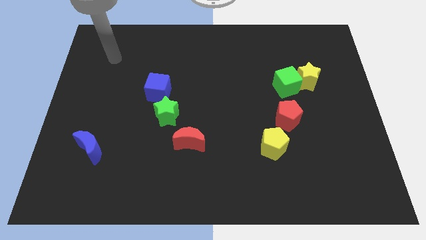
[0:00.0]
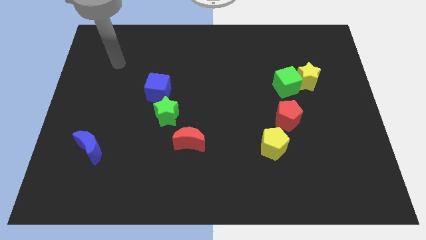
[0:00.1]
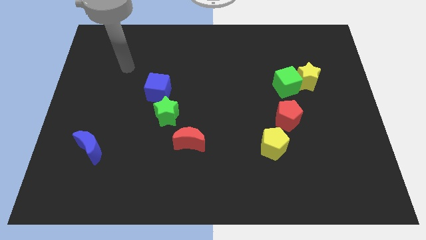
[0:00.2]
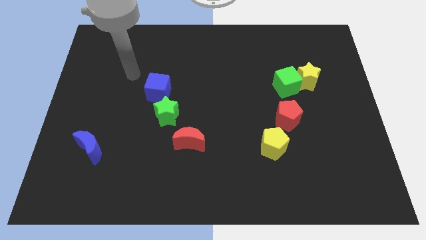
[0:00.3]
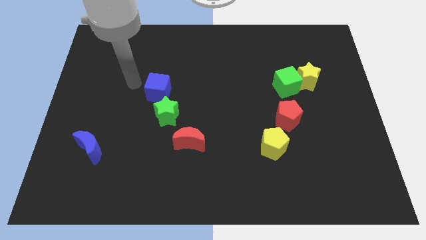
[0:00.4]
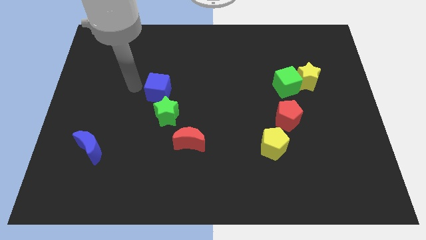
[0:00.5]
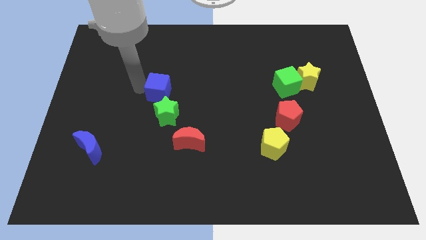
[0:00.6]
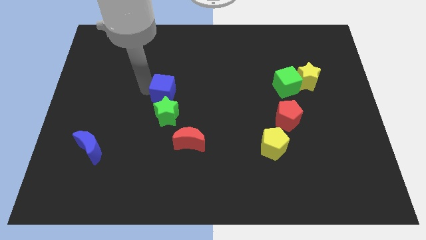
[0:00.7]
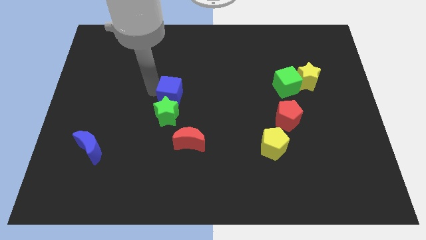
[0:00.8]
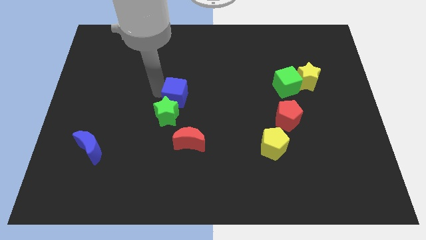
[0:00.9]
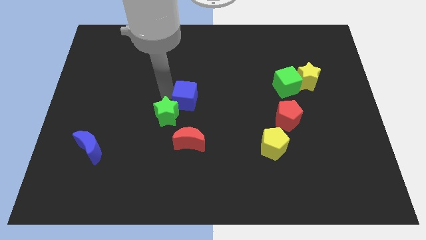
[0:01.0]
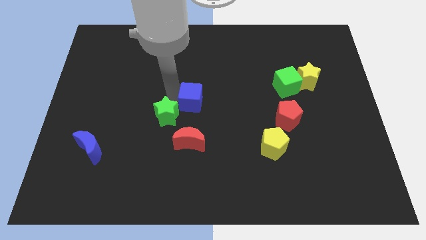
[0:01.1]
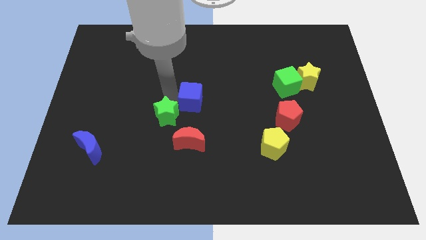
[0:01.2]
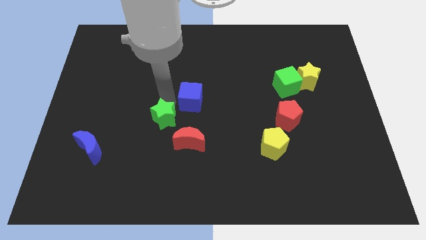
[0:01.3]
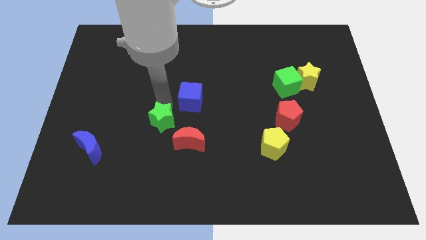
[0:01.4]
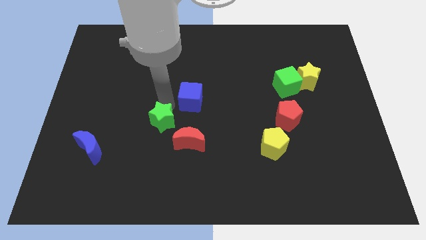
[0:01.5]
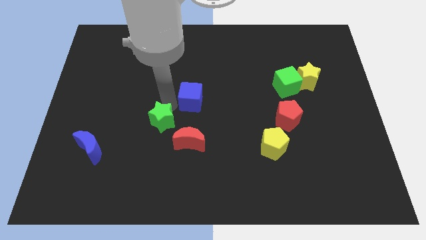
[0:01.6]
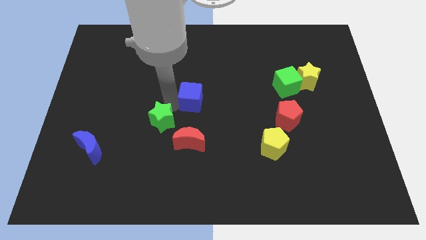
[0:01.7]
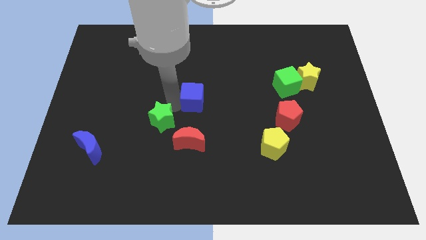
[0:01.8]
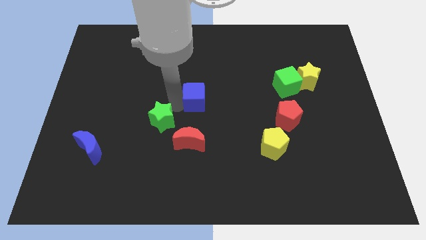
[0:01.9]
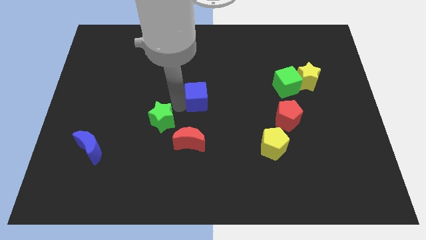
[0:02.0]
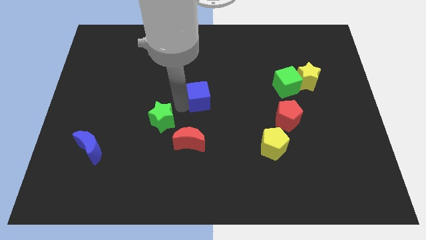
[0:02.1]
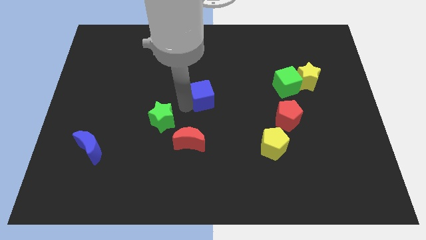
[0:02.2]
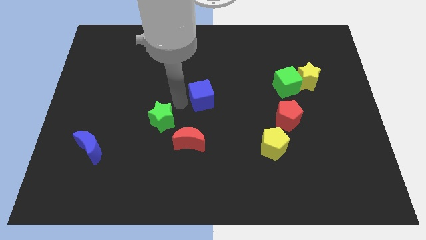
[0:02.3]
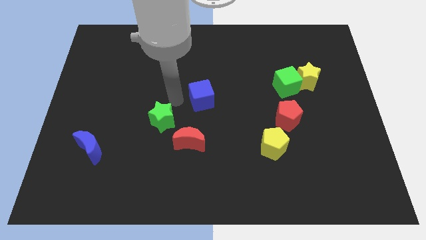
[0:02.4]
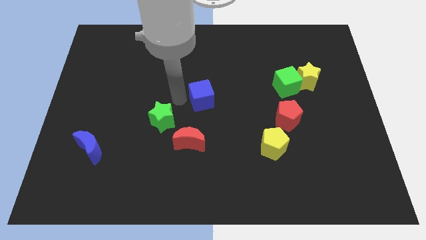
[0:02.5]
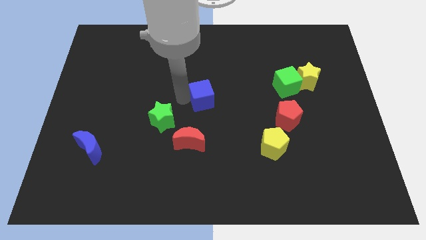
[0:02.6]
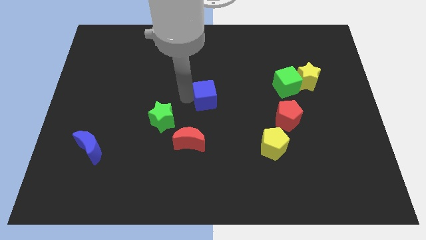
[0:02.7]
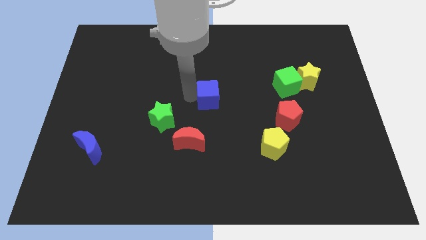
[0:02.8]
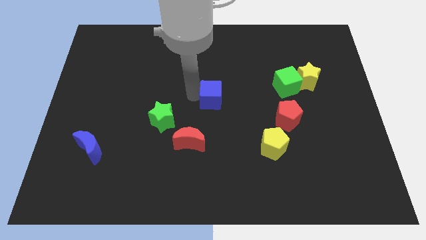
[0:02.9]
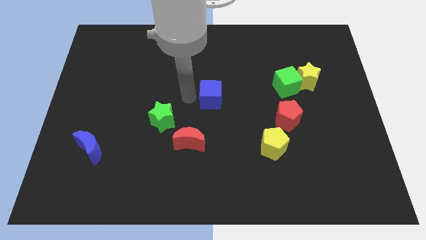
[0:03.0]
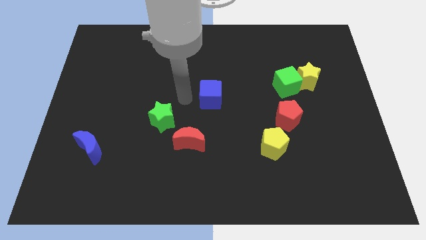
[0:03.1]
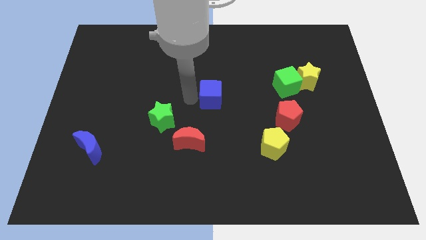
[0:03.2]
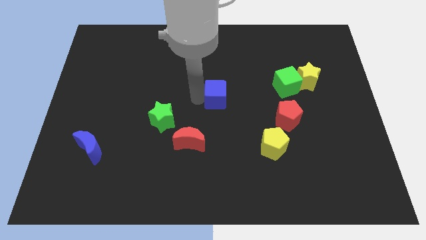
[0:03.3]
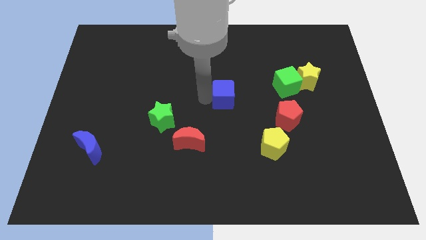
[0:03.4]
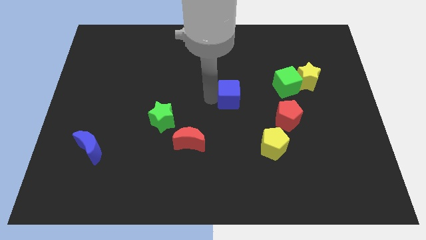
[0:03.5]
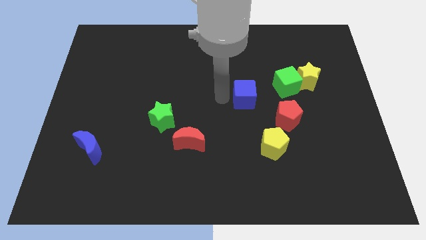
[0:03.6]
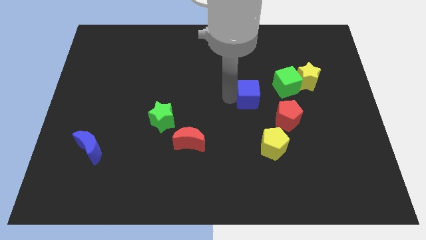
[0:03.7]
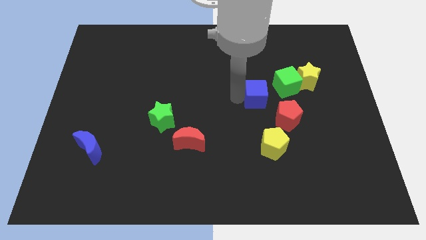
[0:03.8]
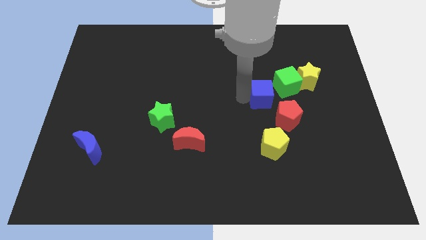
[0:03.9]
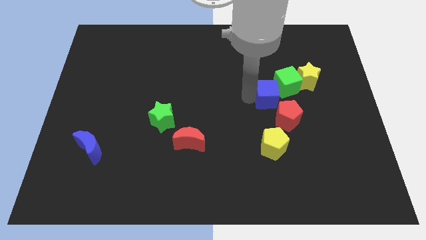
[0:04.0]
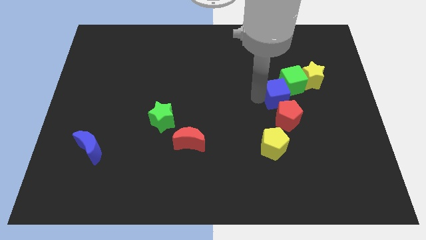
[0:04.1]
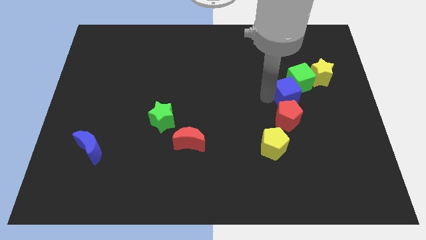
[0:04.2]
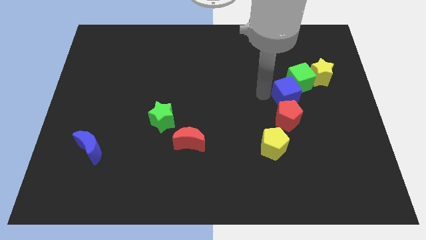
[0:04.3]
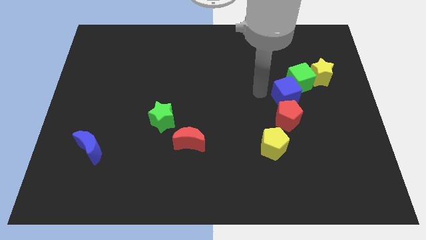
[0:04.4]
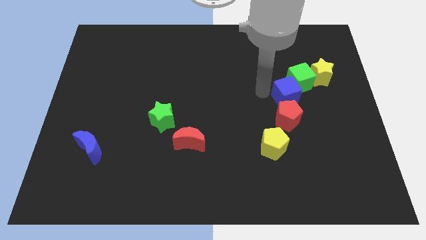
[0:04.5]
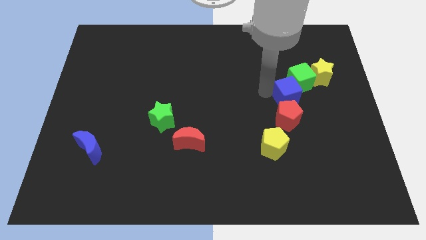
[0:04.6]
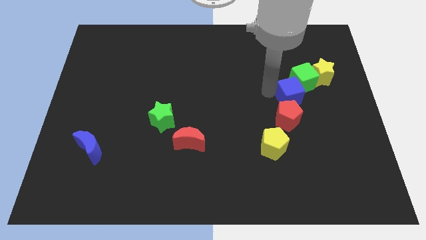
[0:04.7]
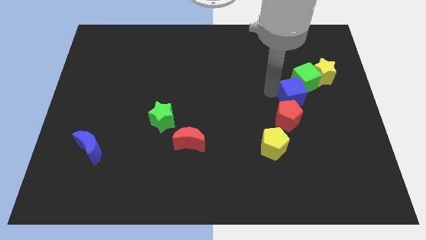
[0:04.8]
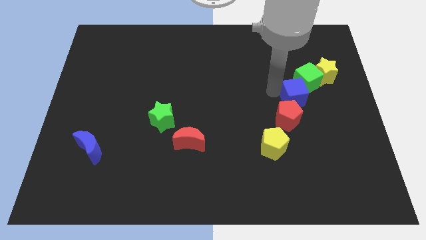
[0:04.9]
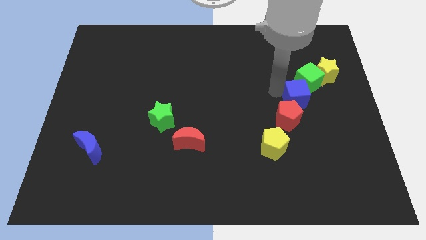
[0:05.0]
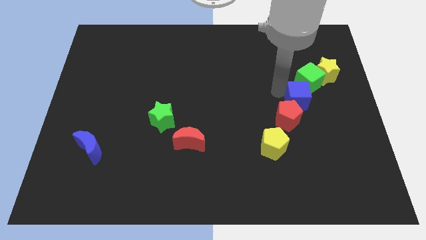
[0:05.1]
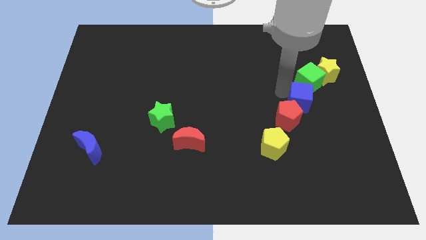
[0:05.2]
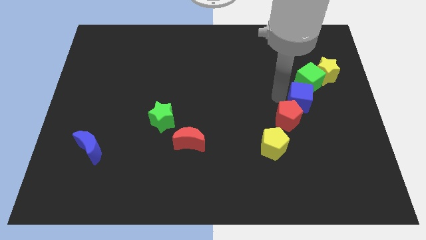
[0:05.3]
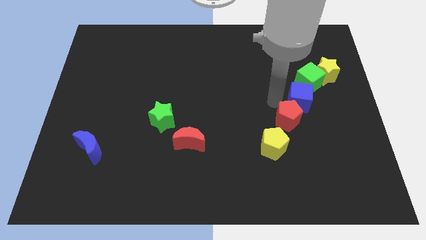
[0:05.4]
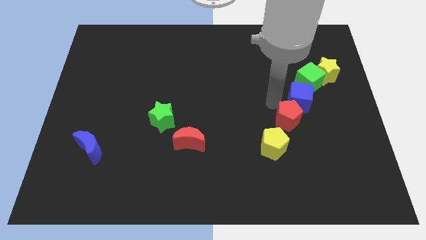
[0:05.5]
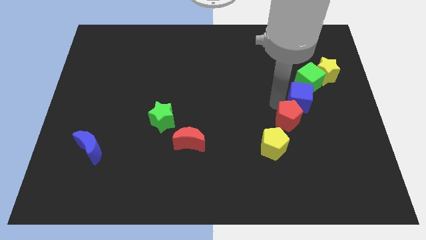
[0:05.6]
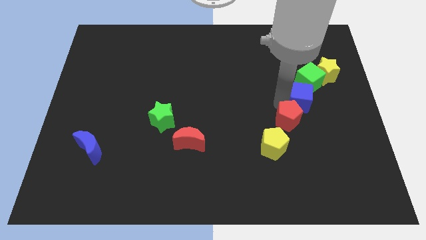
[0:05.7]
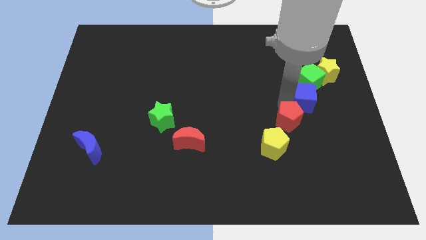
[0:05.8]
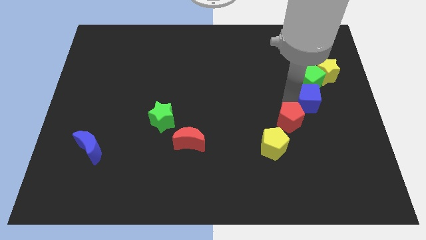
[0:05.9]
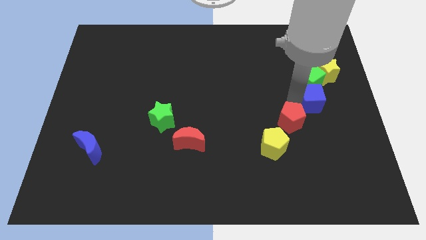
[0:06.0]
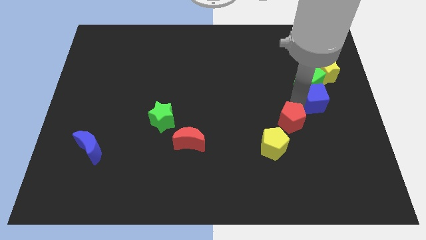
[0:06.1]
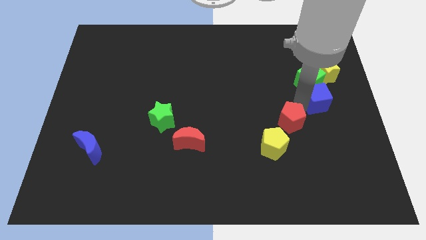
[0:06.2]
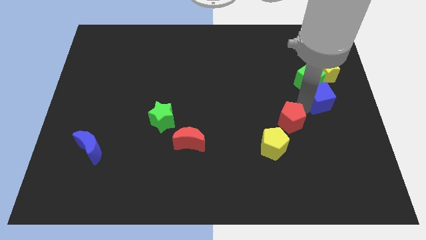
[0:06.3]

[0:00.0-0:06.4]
put the blue cube to the right side of the board

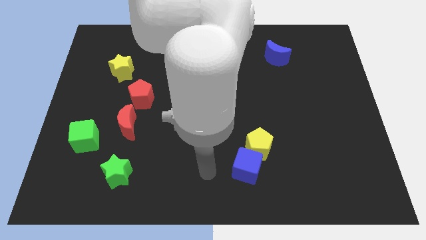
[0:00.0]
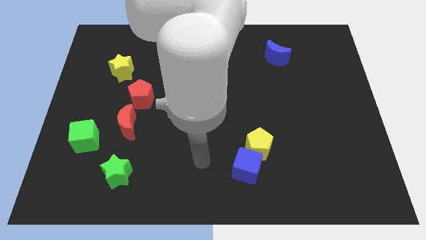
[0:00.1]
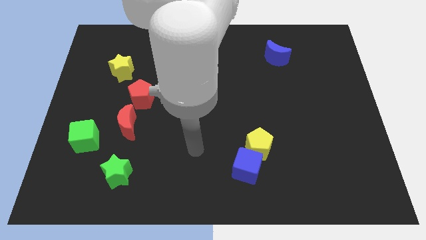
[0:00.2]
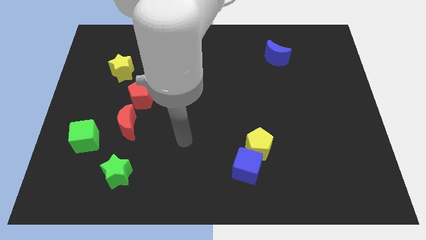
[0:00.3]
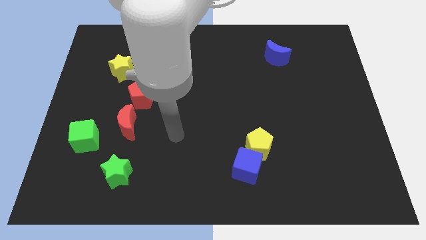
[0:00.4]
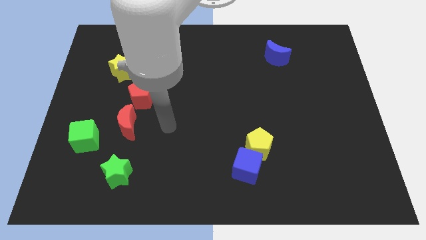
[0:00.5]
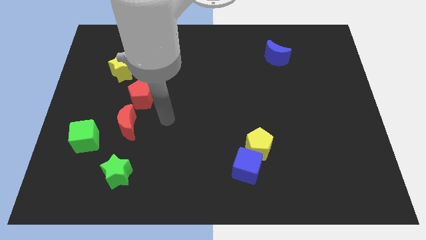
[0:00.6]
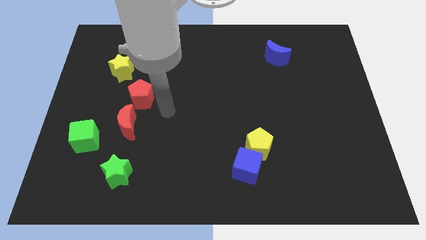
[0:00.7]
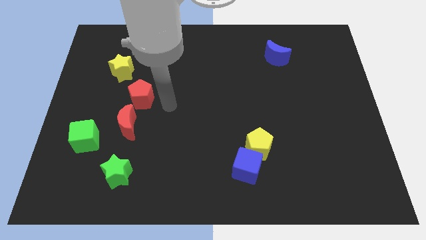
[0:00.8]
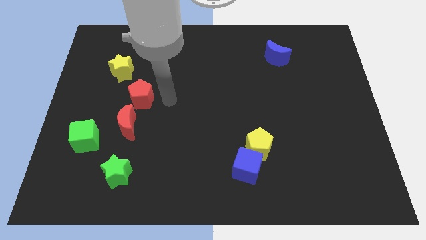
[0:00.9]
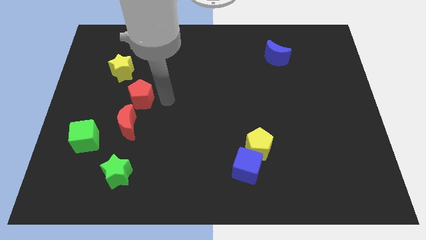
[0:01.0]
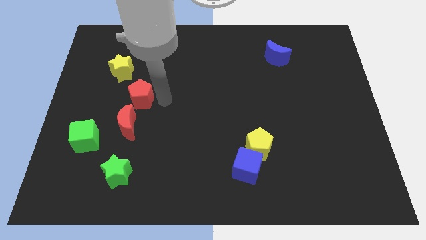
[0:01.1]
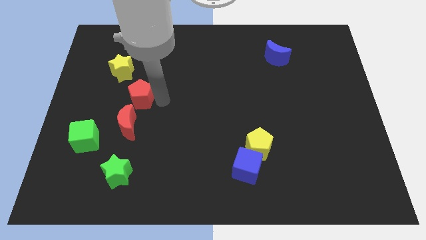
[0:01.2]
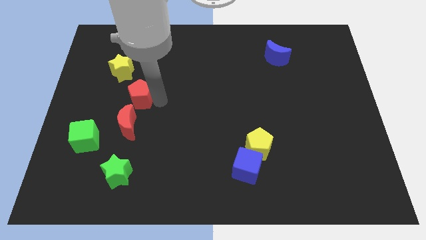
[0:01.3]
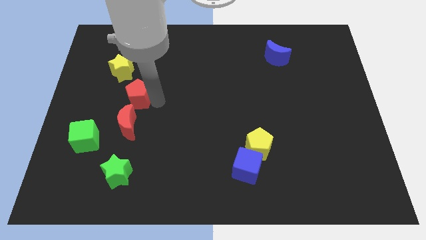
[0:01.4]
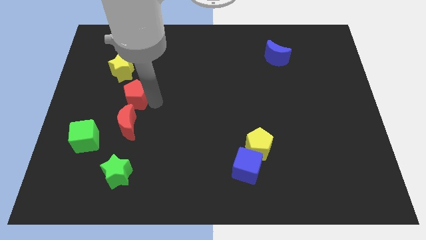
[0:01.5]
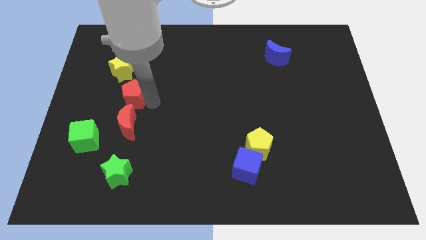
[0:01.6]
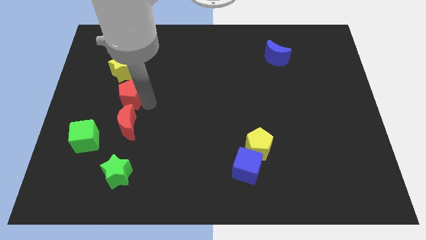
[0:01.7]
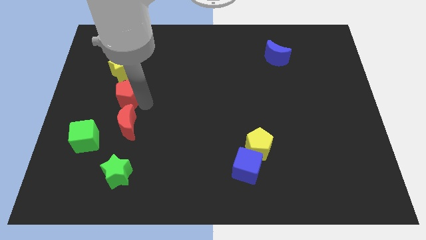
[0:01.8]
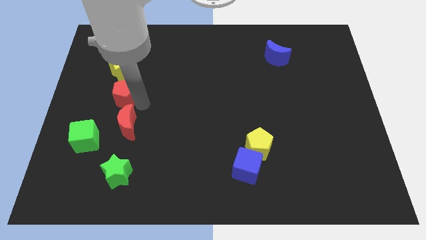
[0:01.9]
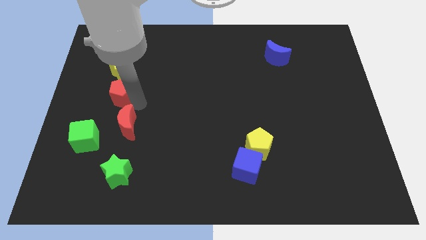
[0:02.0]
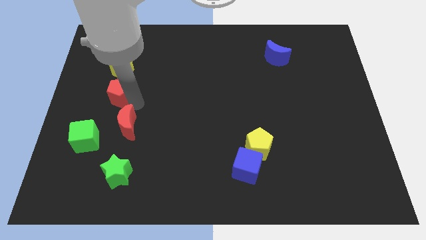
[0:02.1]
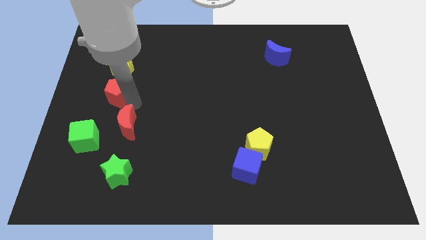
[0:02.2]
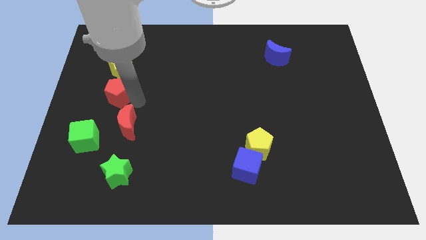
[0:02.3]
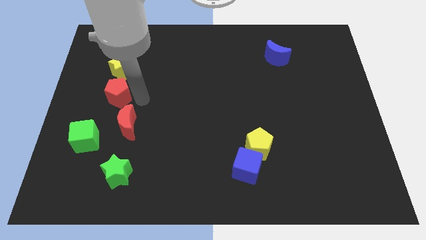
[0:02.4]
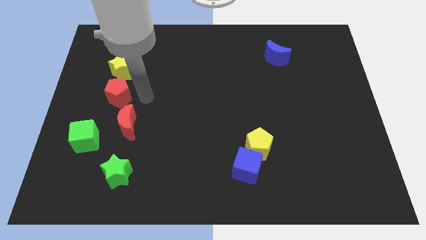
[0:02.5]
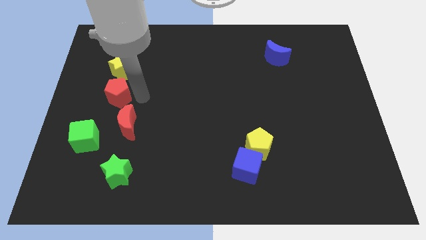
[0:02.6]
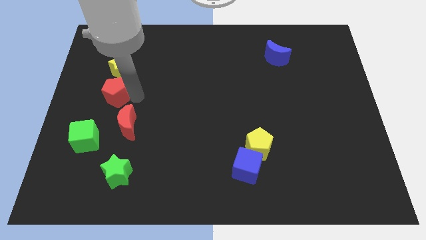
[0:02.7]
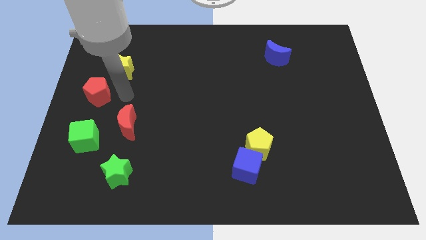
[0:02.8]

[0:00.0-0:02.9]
put the red pentagon to the center left
